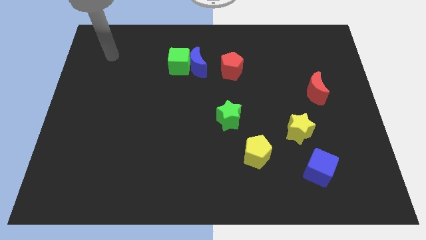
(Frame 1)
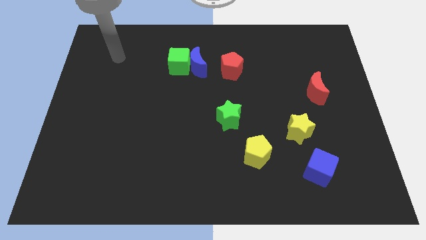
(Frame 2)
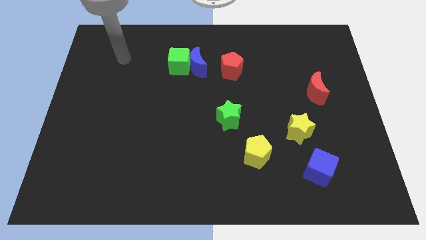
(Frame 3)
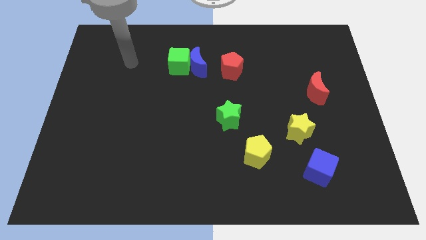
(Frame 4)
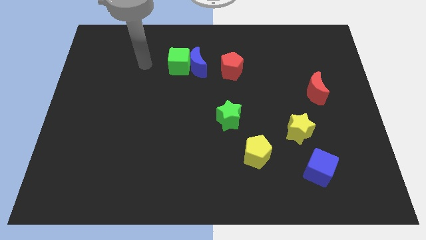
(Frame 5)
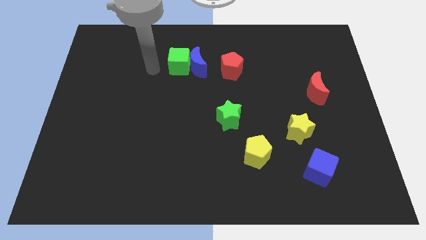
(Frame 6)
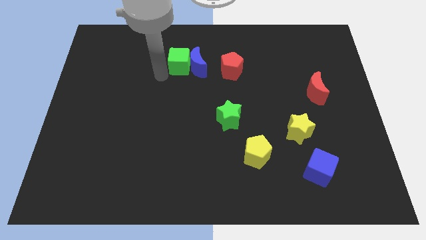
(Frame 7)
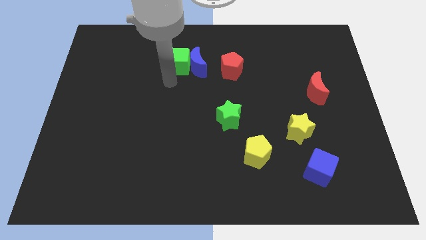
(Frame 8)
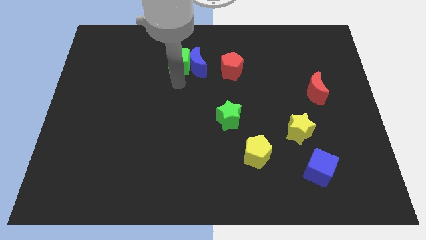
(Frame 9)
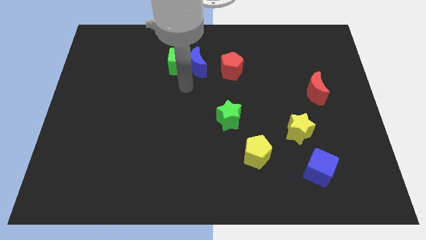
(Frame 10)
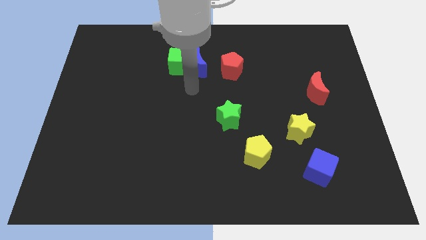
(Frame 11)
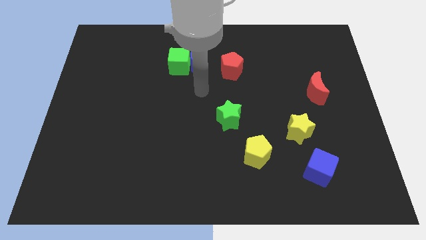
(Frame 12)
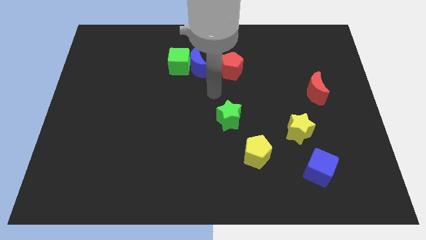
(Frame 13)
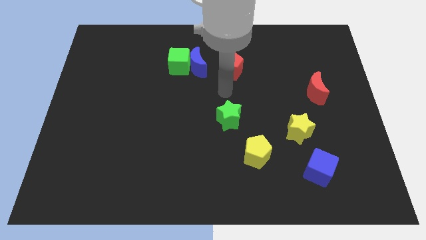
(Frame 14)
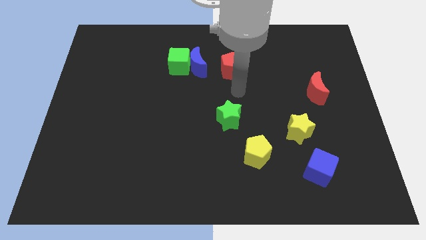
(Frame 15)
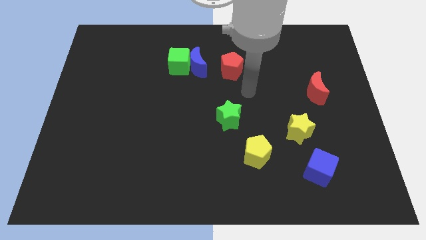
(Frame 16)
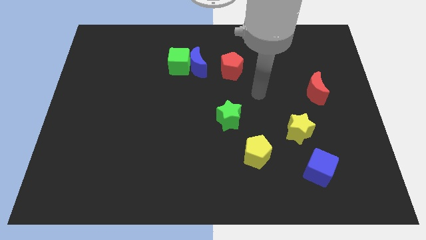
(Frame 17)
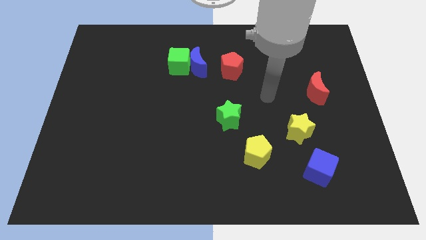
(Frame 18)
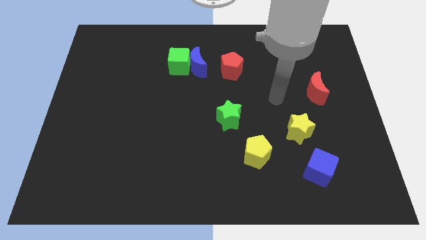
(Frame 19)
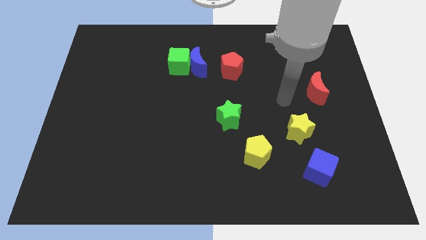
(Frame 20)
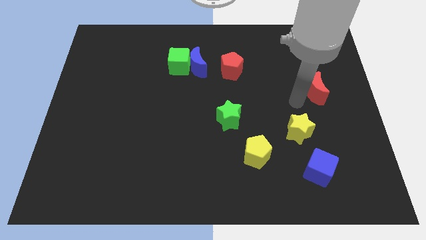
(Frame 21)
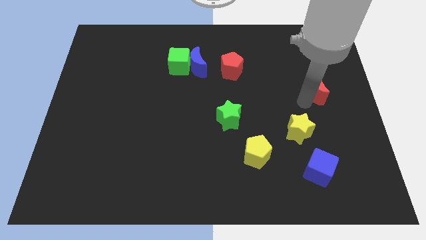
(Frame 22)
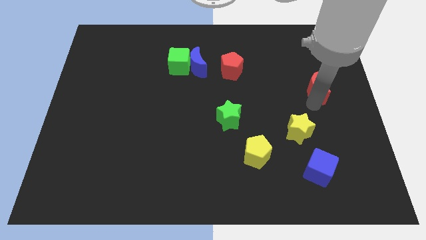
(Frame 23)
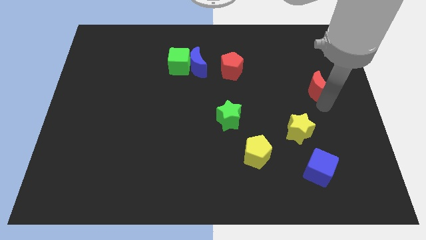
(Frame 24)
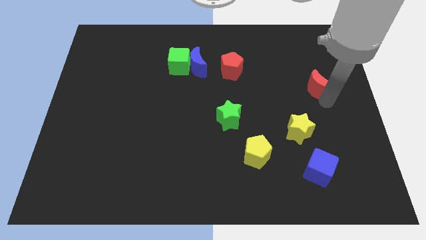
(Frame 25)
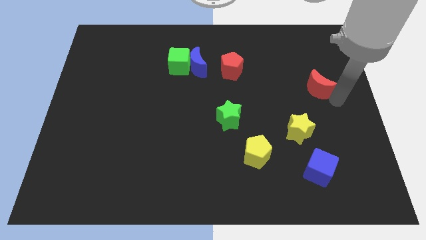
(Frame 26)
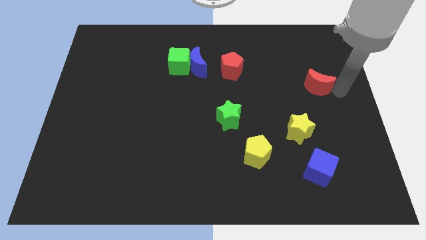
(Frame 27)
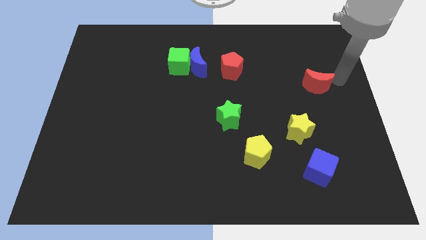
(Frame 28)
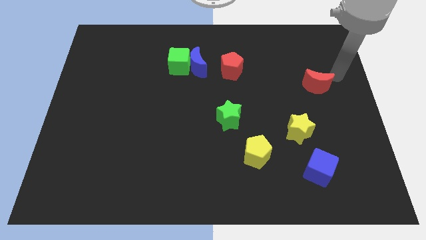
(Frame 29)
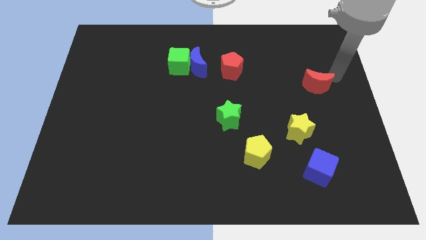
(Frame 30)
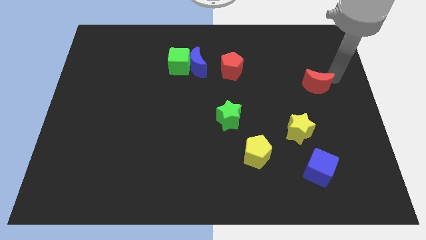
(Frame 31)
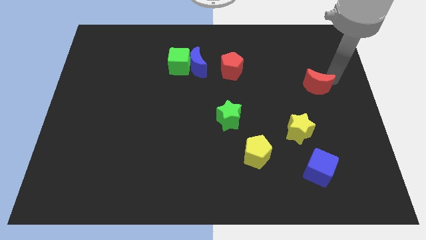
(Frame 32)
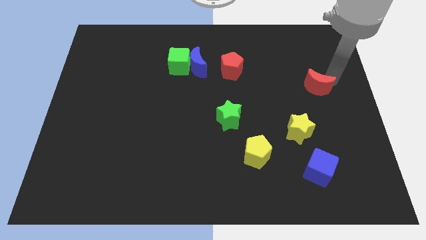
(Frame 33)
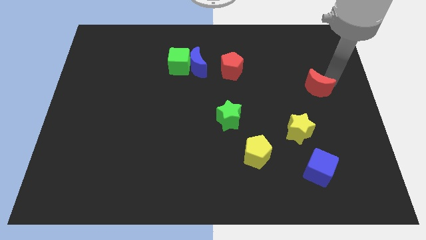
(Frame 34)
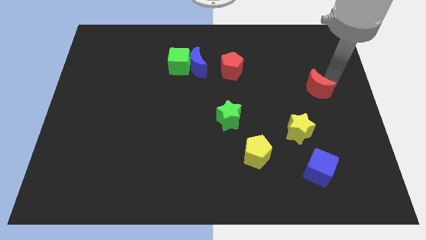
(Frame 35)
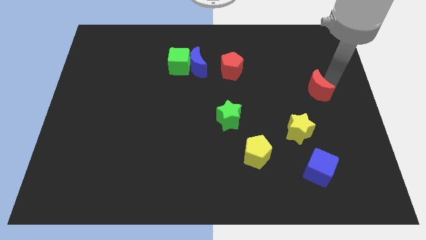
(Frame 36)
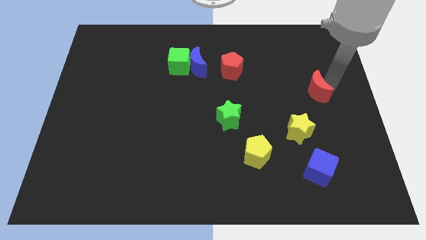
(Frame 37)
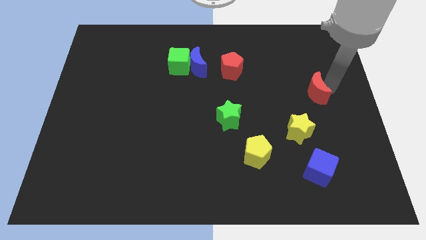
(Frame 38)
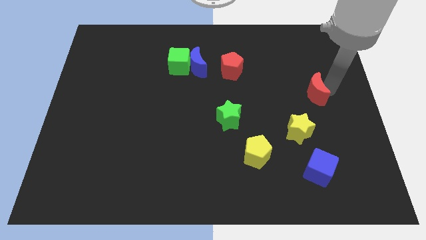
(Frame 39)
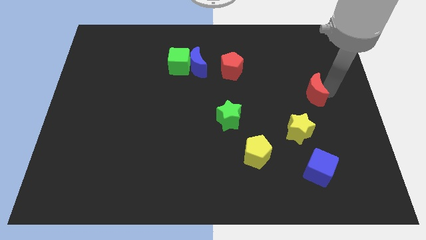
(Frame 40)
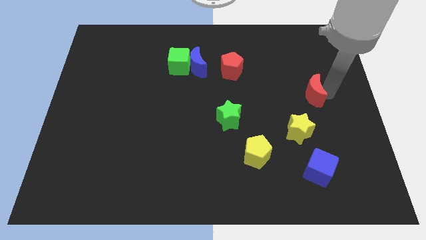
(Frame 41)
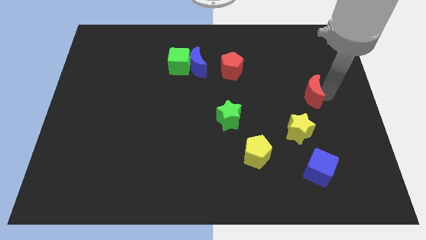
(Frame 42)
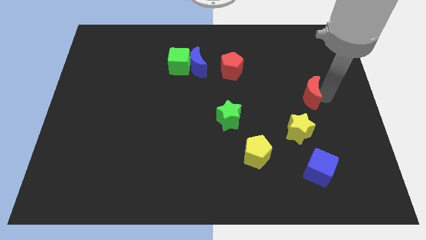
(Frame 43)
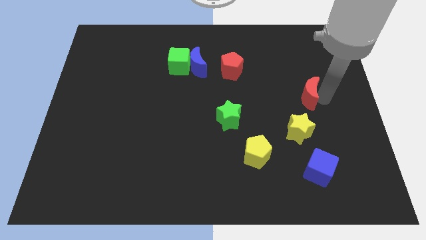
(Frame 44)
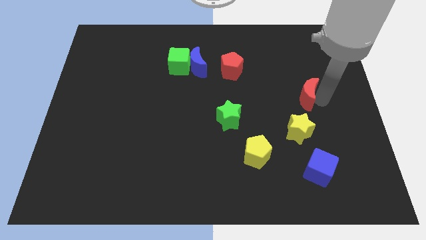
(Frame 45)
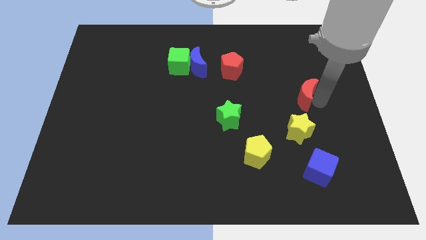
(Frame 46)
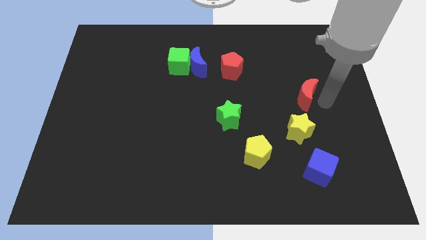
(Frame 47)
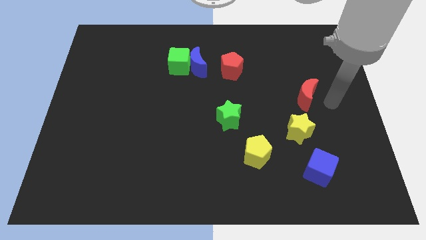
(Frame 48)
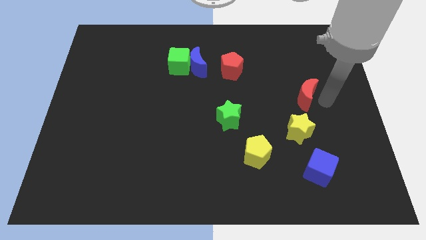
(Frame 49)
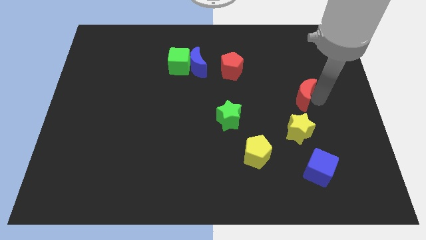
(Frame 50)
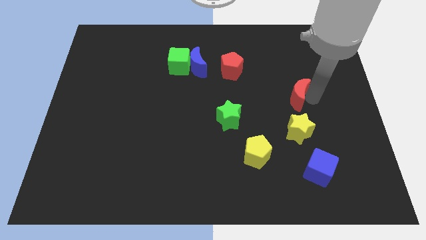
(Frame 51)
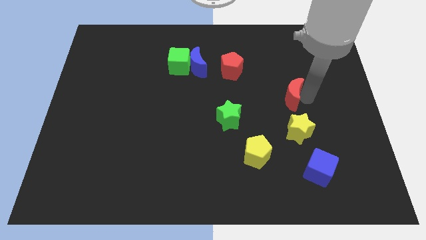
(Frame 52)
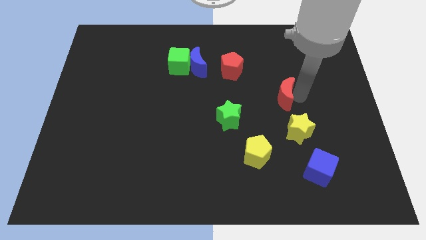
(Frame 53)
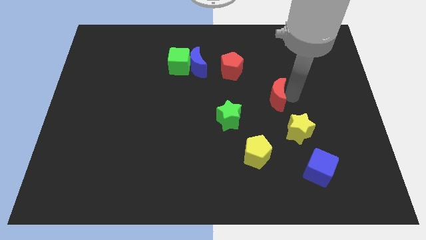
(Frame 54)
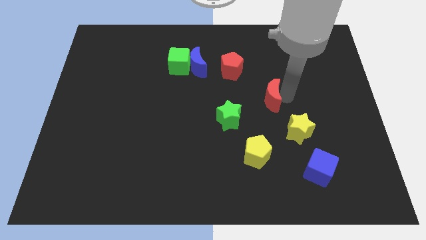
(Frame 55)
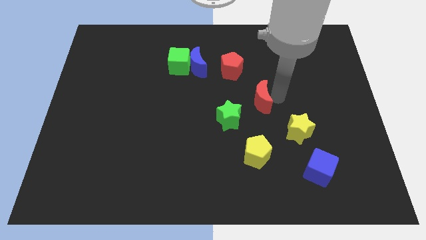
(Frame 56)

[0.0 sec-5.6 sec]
slide the red moon to the middle
